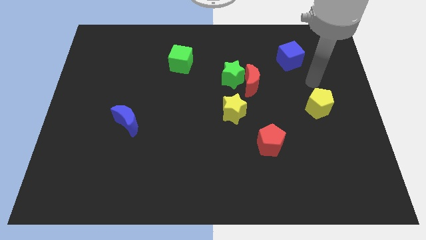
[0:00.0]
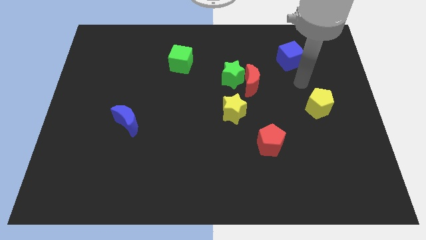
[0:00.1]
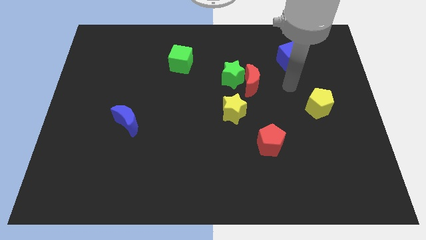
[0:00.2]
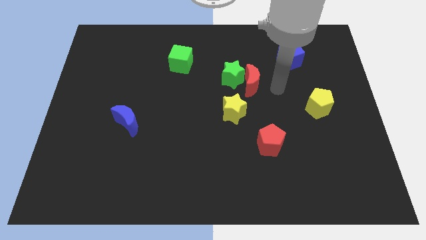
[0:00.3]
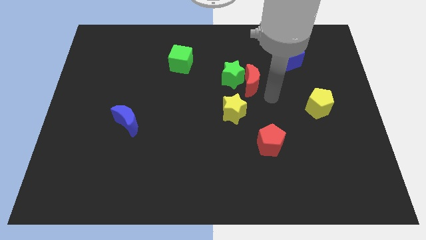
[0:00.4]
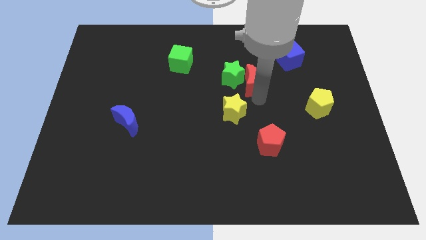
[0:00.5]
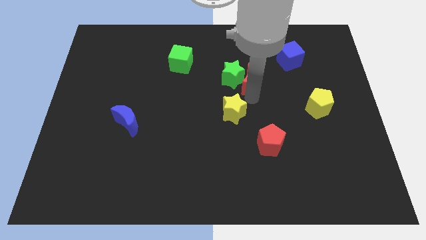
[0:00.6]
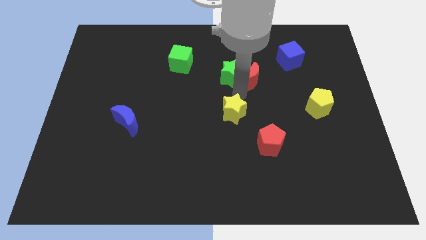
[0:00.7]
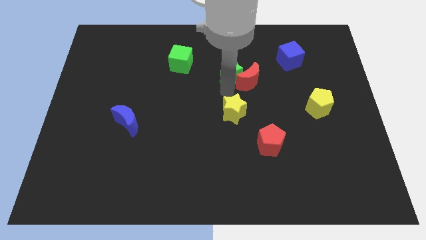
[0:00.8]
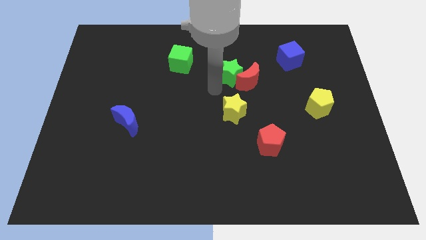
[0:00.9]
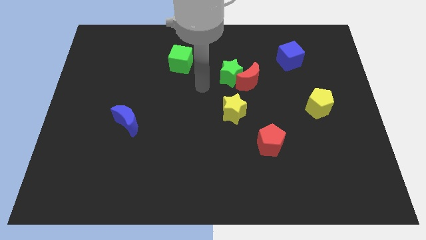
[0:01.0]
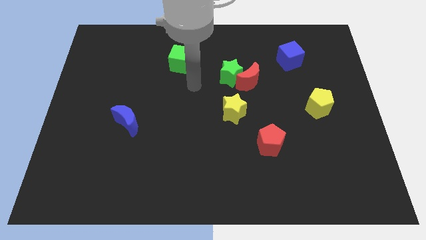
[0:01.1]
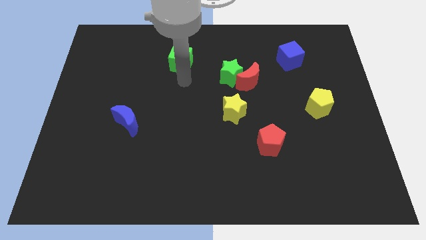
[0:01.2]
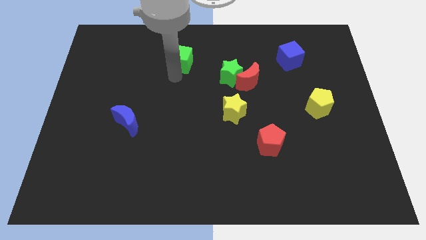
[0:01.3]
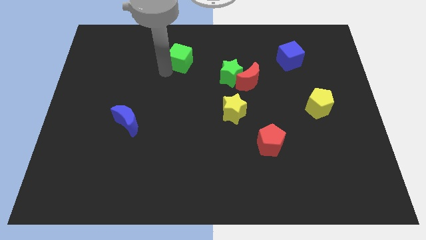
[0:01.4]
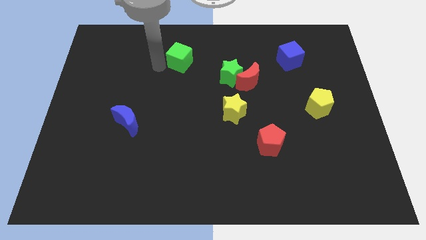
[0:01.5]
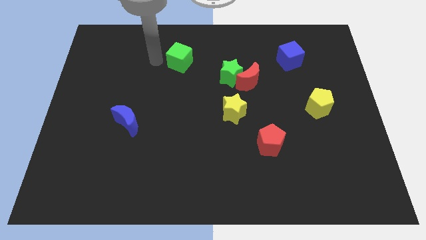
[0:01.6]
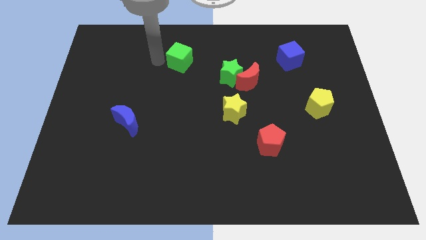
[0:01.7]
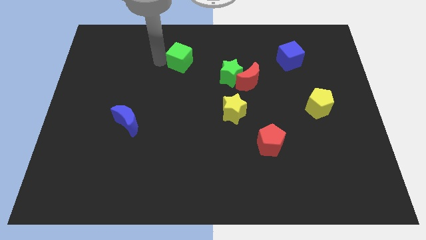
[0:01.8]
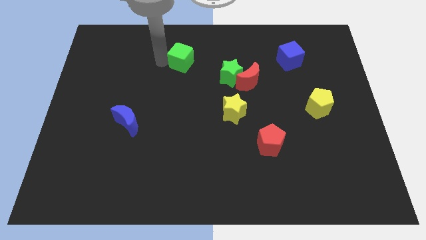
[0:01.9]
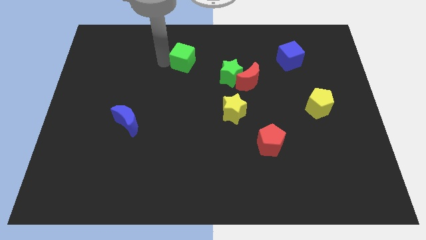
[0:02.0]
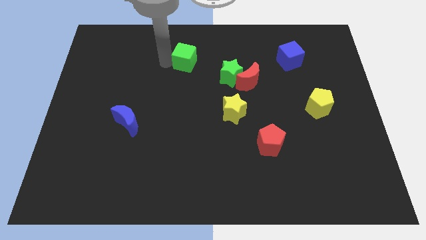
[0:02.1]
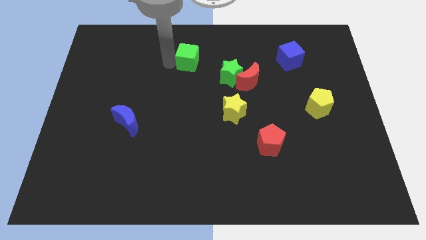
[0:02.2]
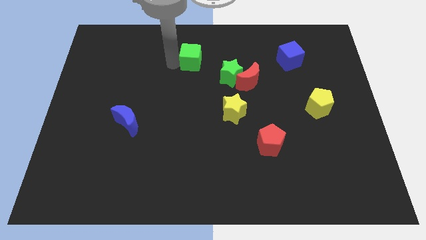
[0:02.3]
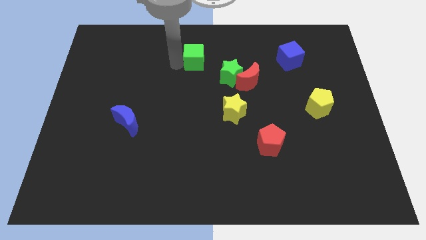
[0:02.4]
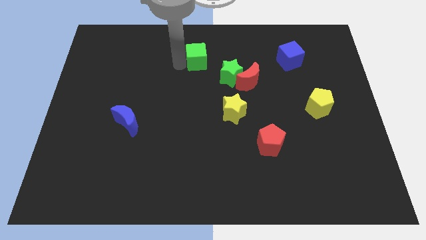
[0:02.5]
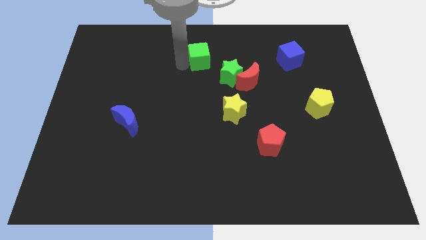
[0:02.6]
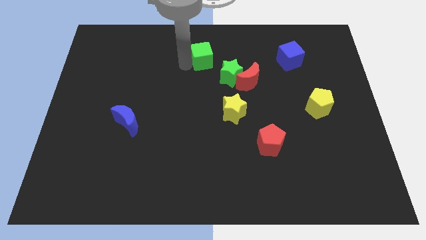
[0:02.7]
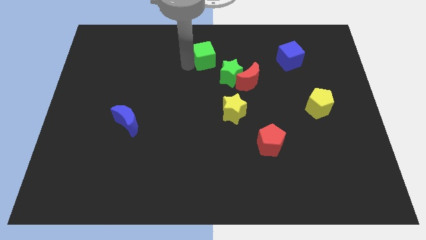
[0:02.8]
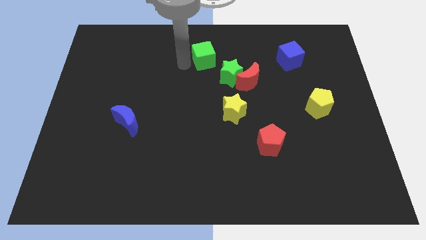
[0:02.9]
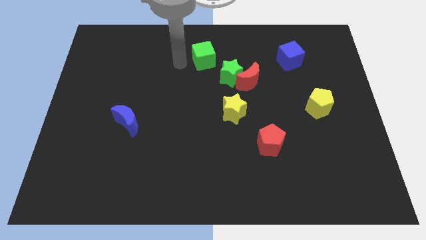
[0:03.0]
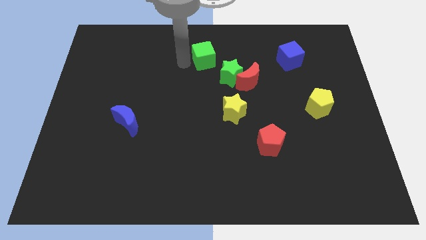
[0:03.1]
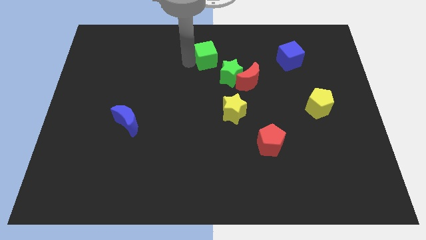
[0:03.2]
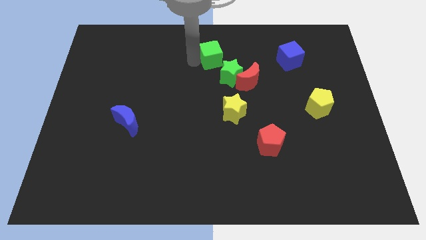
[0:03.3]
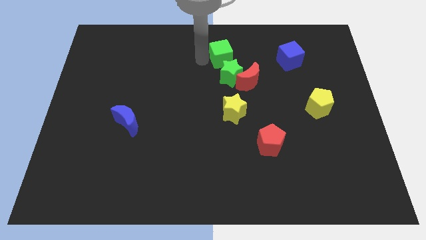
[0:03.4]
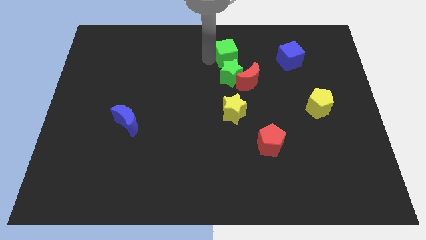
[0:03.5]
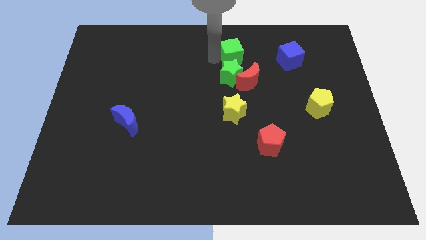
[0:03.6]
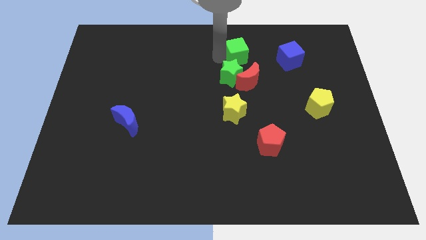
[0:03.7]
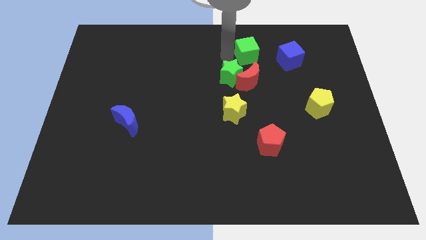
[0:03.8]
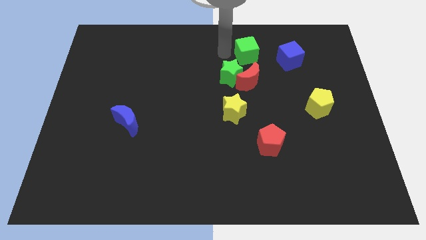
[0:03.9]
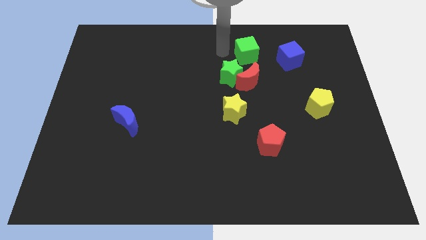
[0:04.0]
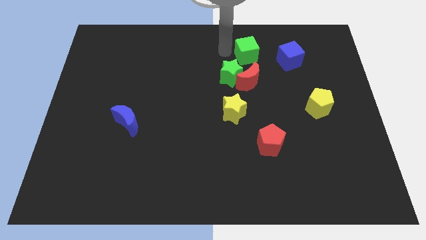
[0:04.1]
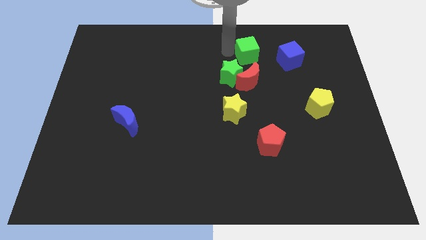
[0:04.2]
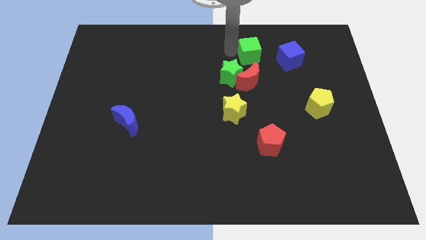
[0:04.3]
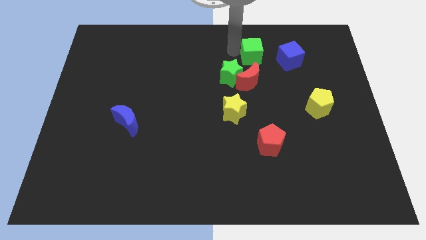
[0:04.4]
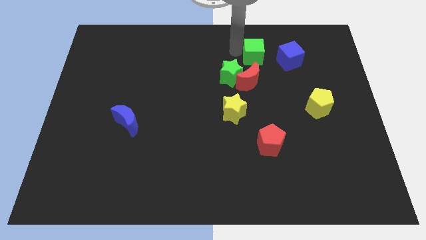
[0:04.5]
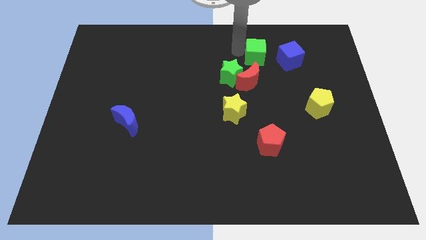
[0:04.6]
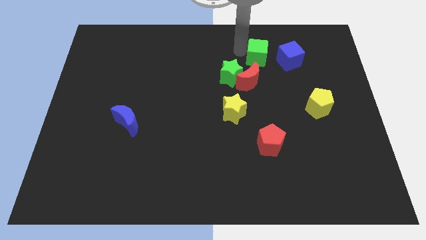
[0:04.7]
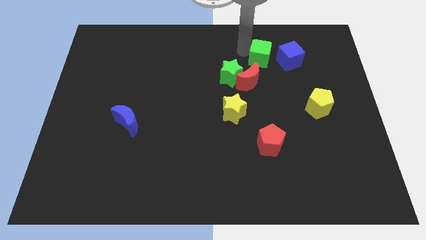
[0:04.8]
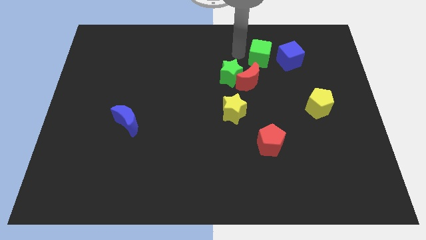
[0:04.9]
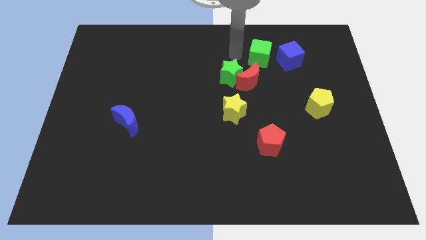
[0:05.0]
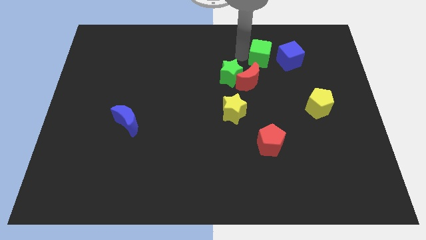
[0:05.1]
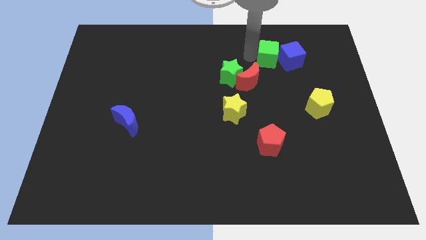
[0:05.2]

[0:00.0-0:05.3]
push the green cube close to the blue cube

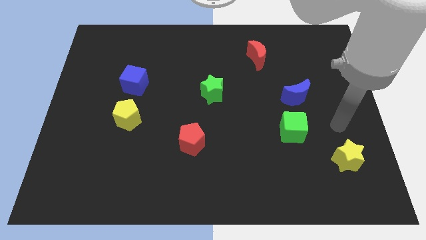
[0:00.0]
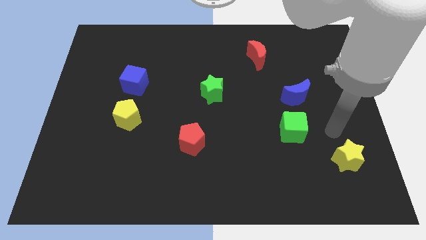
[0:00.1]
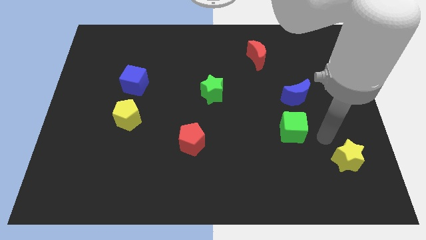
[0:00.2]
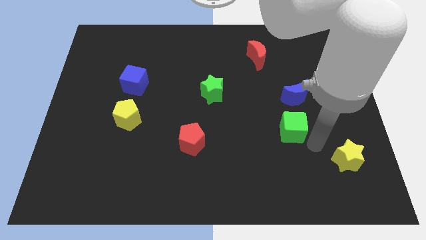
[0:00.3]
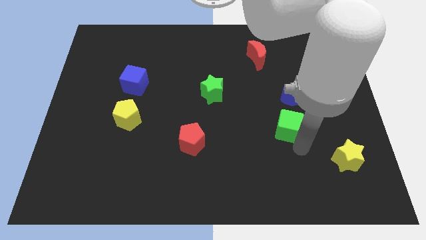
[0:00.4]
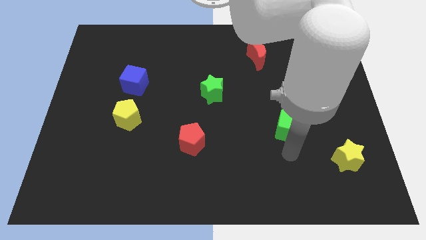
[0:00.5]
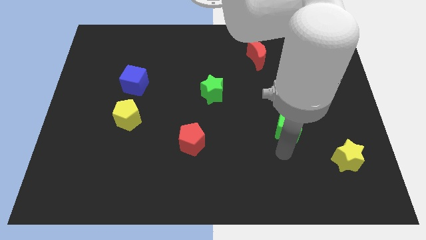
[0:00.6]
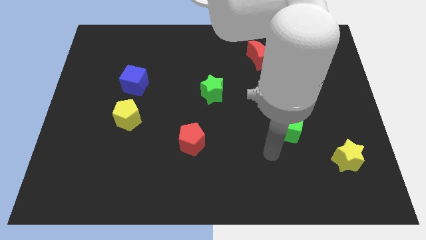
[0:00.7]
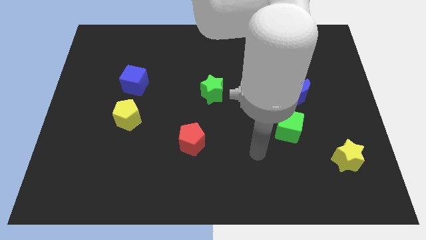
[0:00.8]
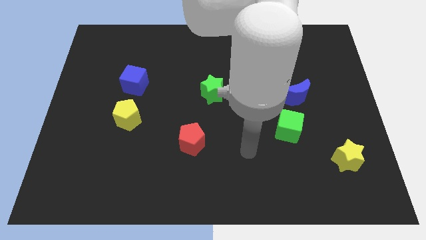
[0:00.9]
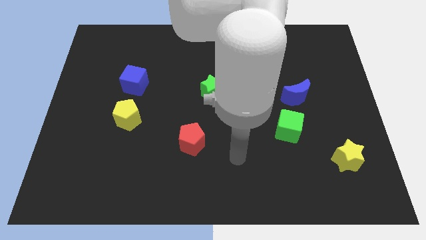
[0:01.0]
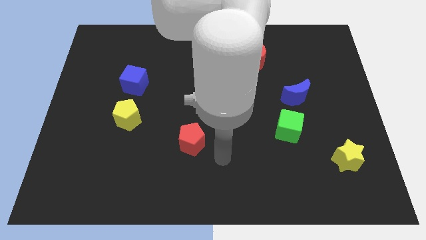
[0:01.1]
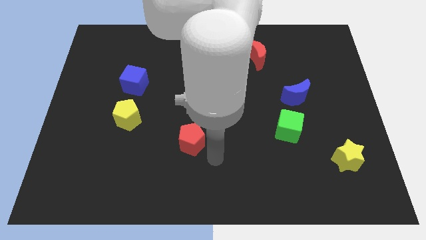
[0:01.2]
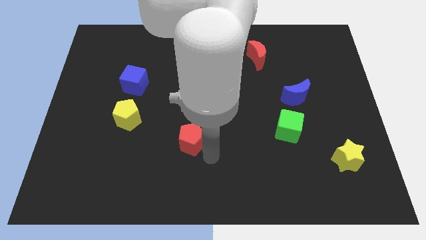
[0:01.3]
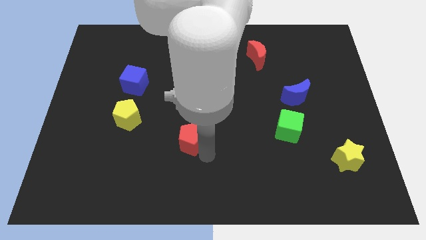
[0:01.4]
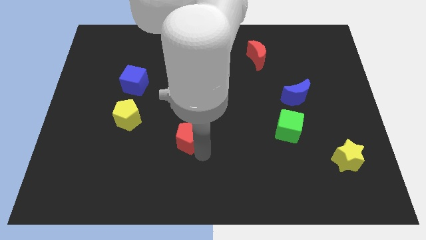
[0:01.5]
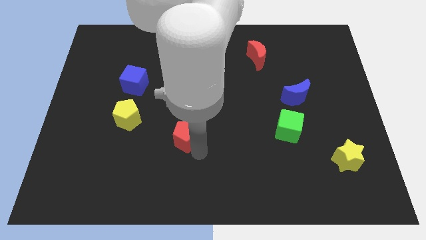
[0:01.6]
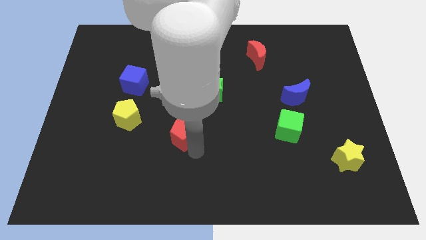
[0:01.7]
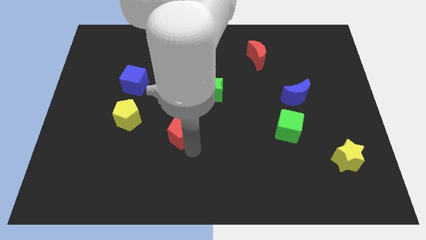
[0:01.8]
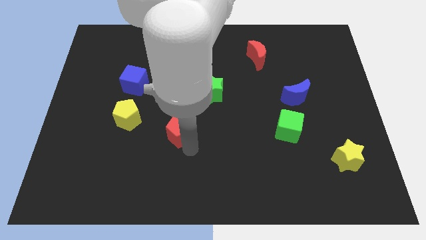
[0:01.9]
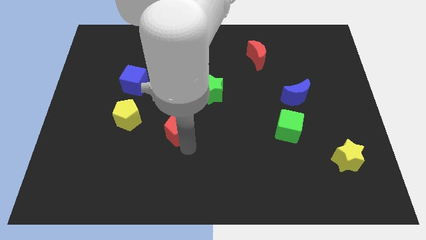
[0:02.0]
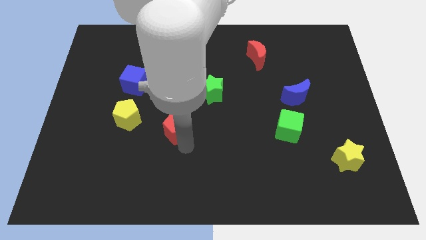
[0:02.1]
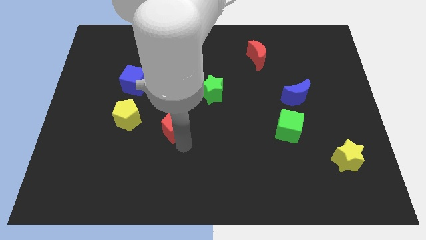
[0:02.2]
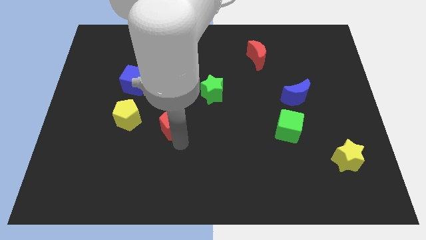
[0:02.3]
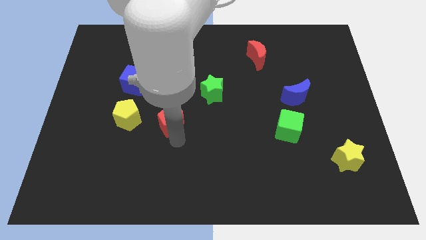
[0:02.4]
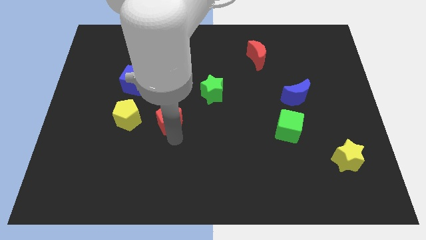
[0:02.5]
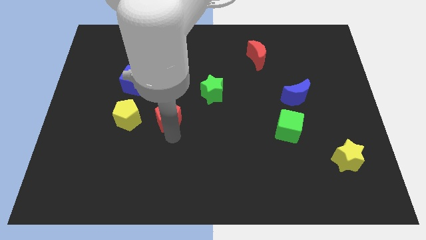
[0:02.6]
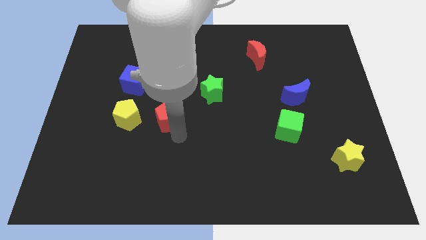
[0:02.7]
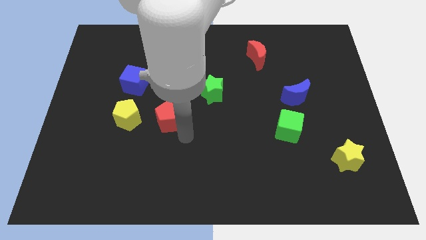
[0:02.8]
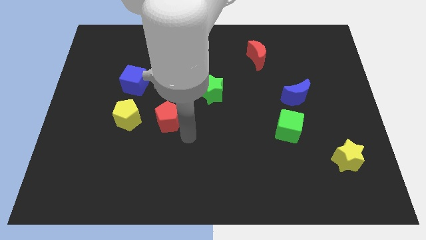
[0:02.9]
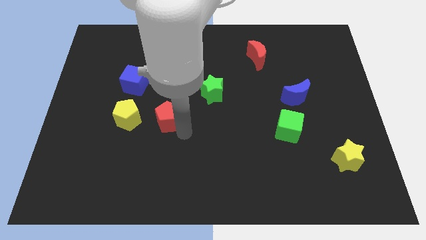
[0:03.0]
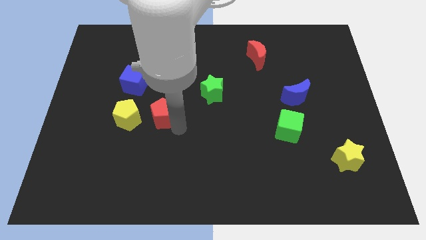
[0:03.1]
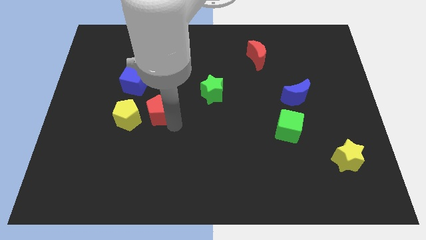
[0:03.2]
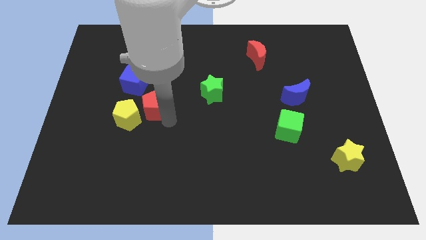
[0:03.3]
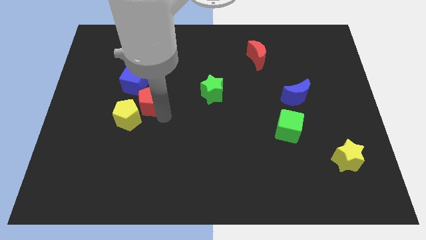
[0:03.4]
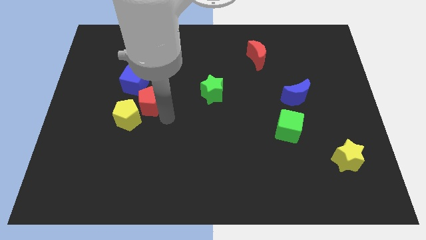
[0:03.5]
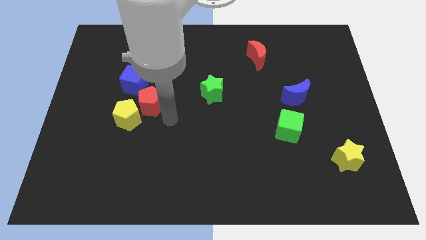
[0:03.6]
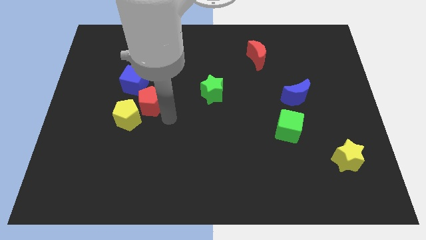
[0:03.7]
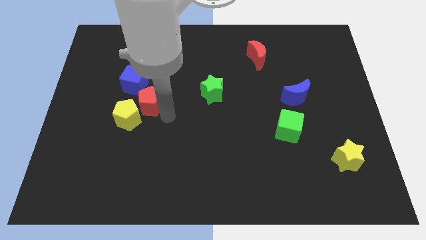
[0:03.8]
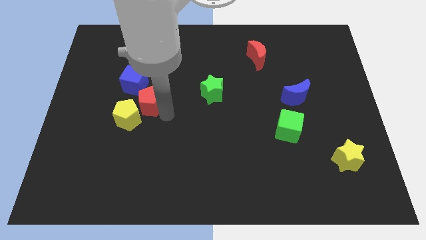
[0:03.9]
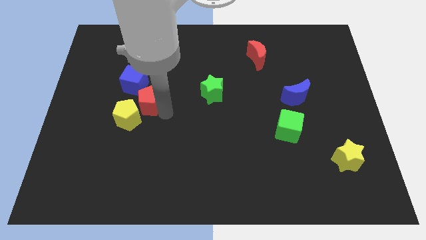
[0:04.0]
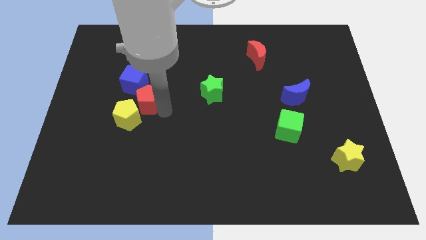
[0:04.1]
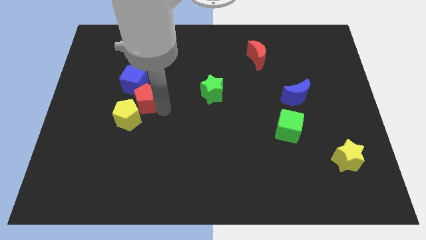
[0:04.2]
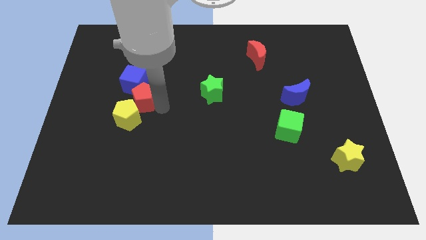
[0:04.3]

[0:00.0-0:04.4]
put the red pentagon close to the blue cube
